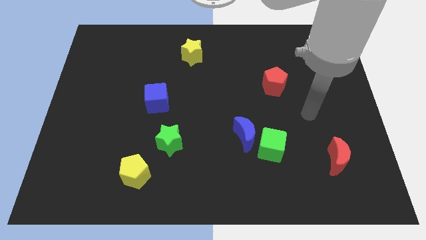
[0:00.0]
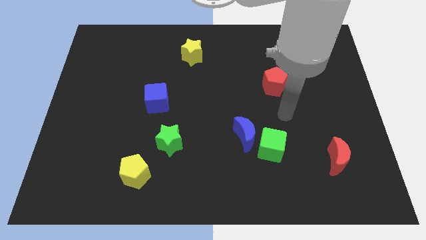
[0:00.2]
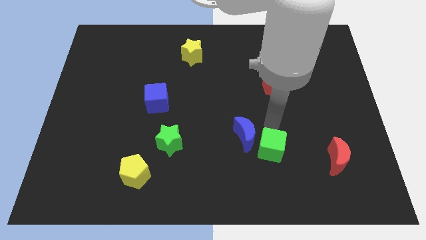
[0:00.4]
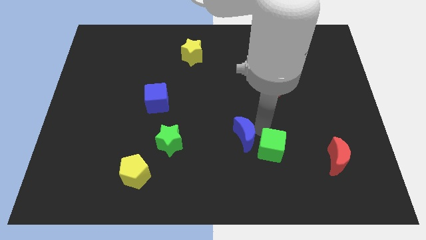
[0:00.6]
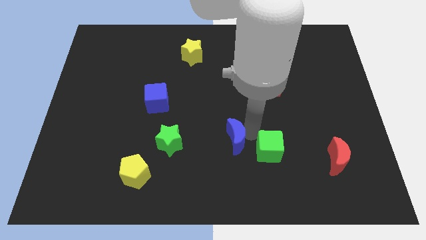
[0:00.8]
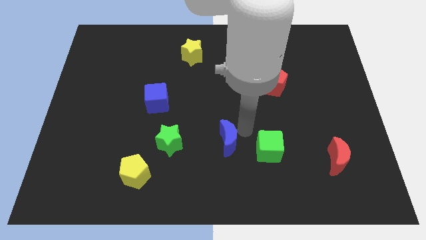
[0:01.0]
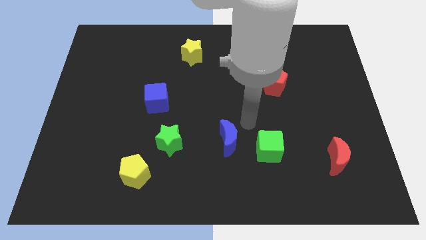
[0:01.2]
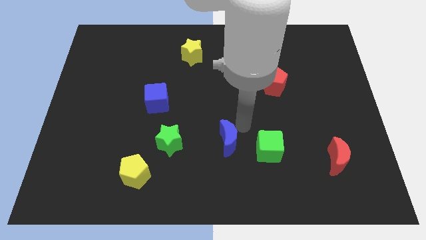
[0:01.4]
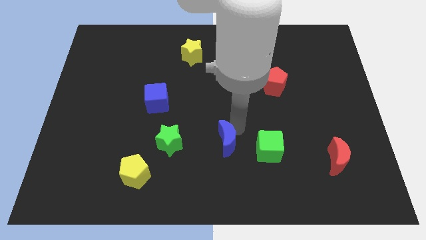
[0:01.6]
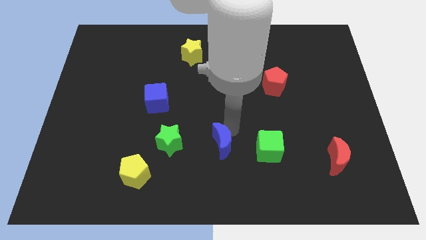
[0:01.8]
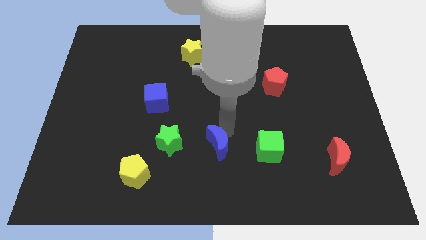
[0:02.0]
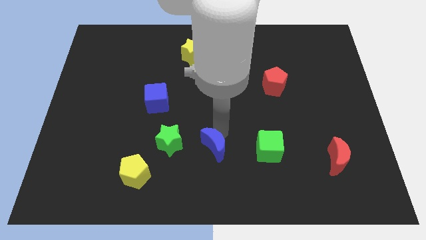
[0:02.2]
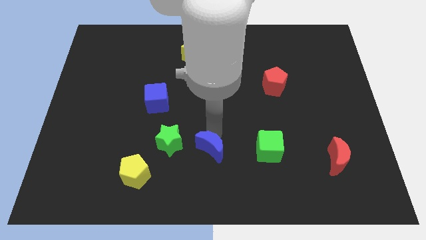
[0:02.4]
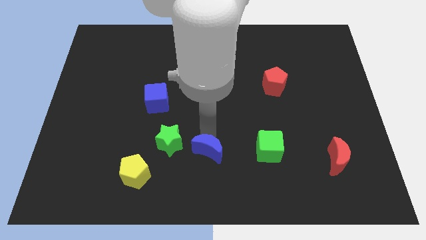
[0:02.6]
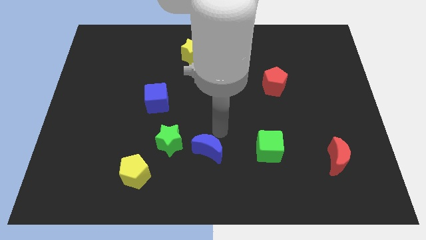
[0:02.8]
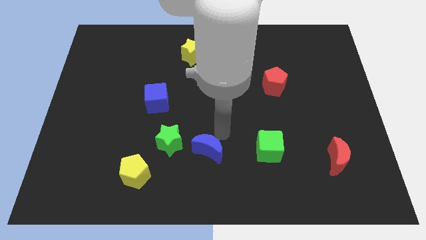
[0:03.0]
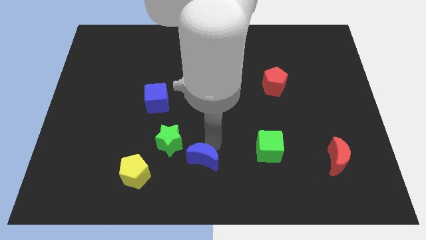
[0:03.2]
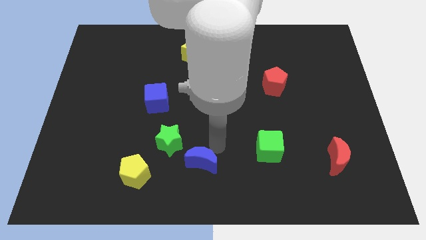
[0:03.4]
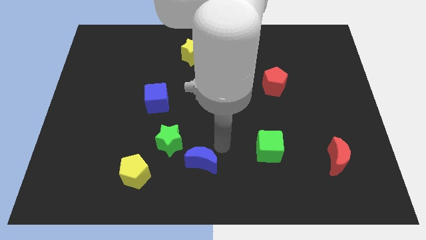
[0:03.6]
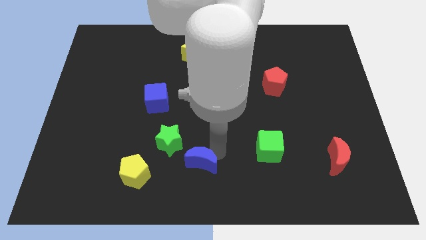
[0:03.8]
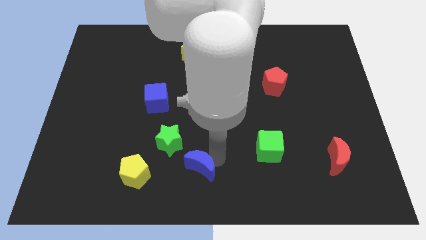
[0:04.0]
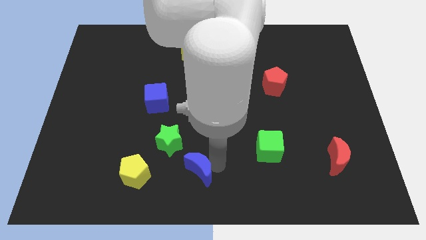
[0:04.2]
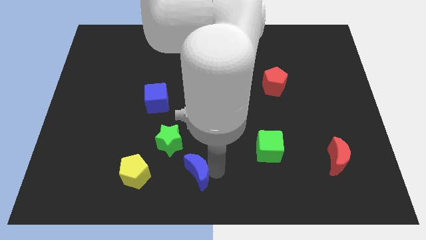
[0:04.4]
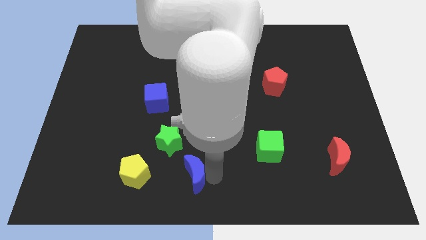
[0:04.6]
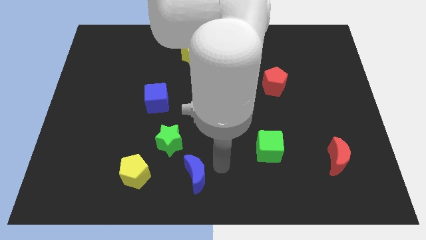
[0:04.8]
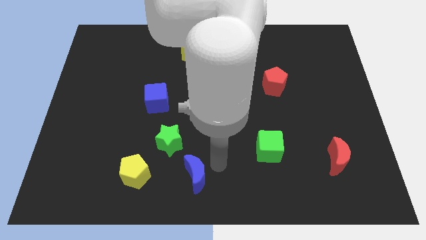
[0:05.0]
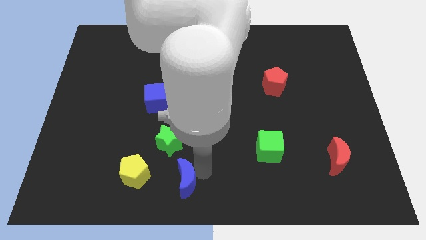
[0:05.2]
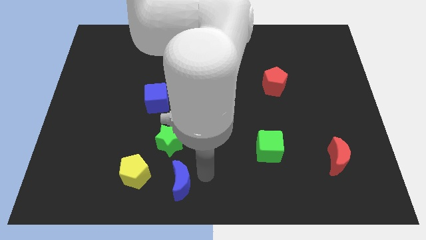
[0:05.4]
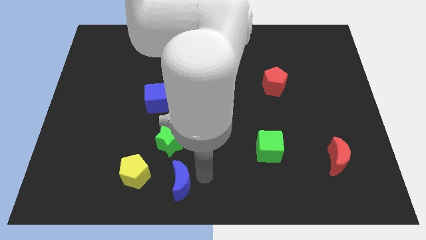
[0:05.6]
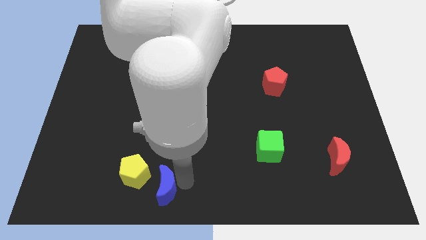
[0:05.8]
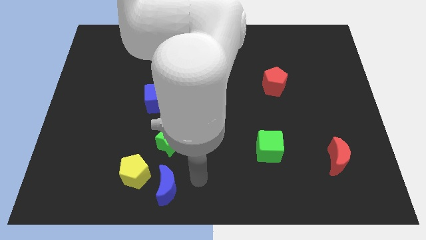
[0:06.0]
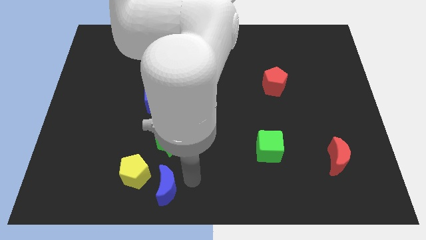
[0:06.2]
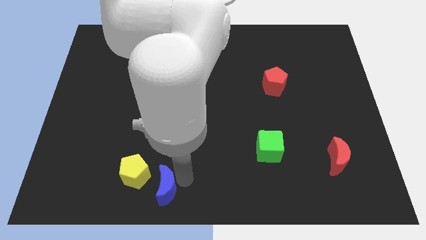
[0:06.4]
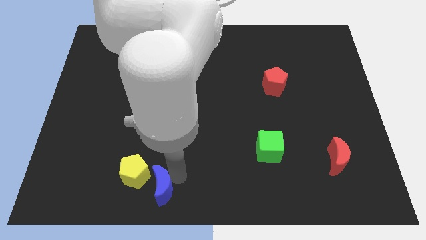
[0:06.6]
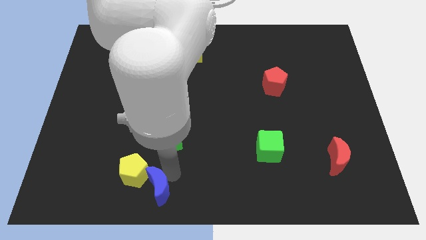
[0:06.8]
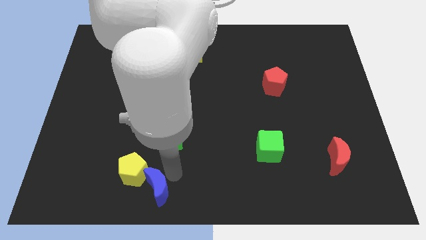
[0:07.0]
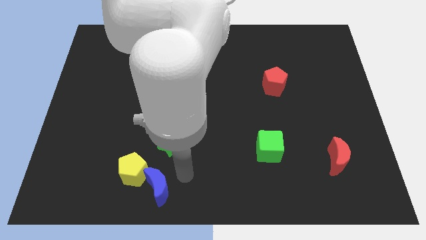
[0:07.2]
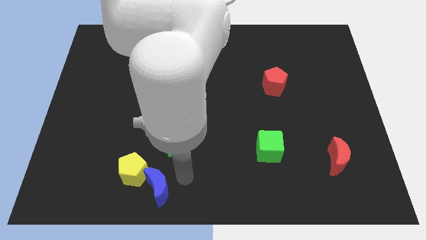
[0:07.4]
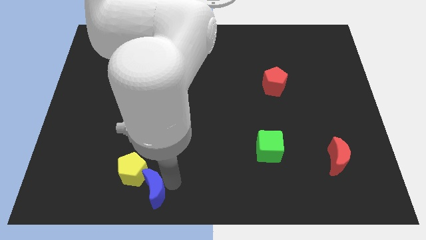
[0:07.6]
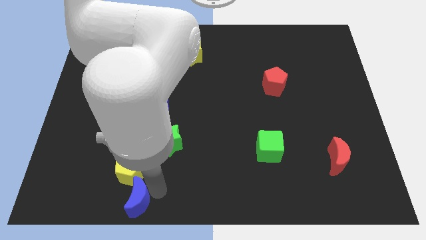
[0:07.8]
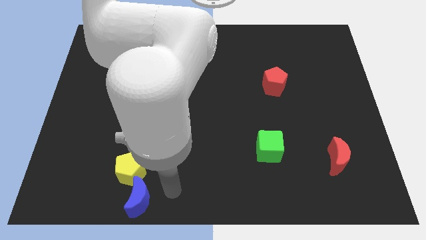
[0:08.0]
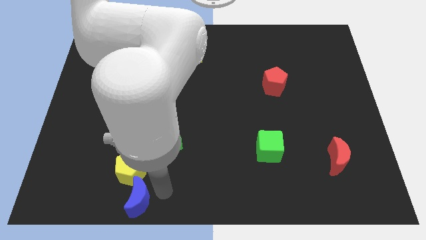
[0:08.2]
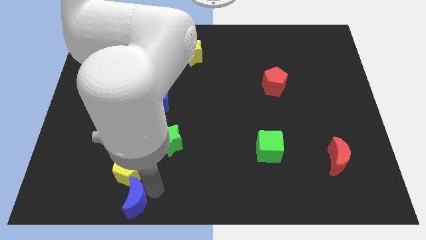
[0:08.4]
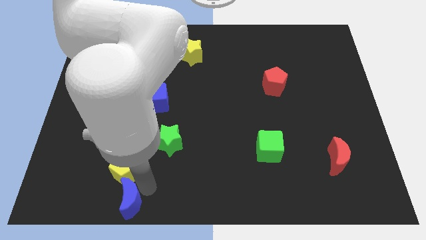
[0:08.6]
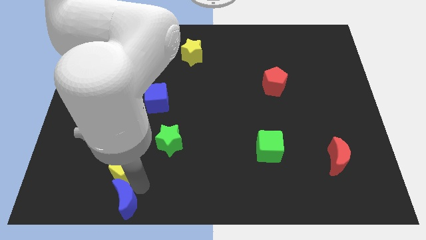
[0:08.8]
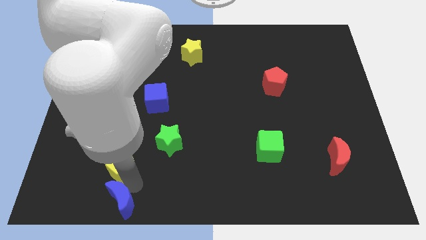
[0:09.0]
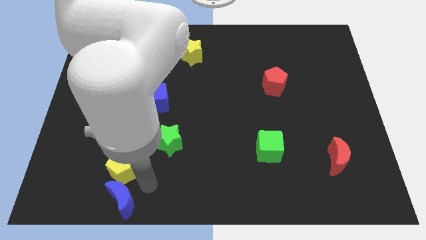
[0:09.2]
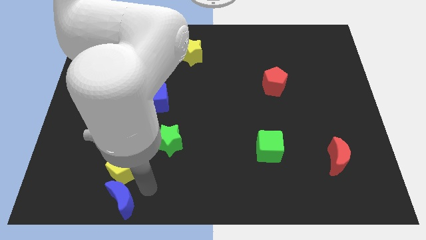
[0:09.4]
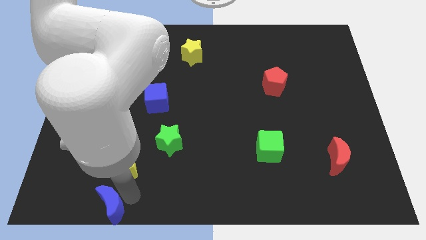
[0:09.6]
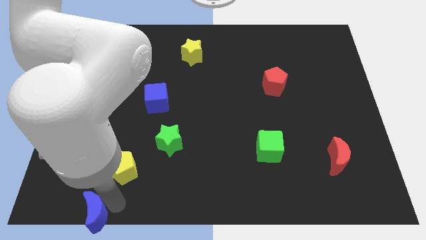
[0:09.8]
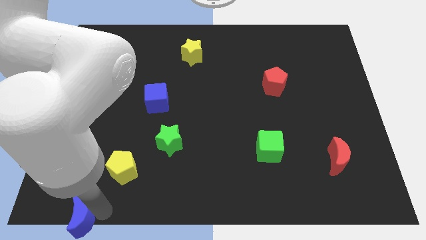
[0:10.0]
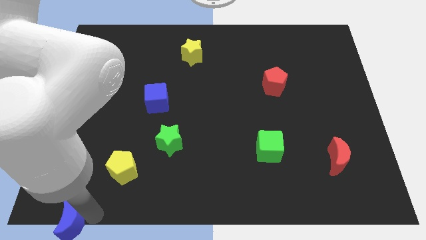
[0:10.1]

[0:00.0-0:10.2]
move the blue moon to the lower left corner

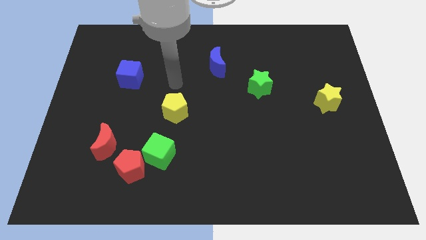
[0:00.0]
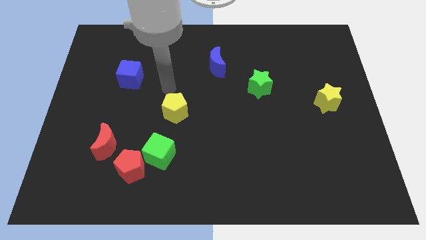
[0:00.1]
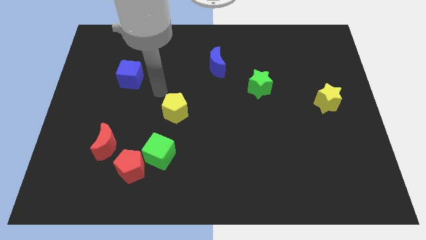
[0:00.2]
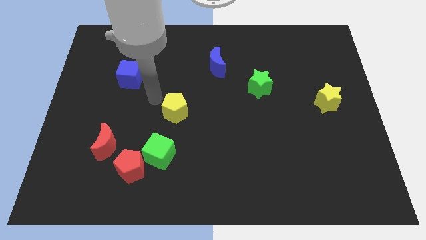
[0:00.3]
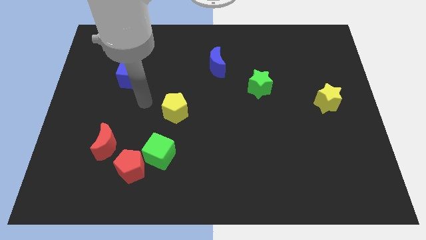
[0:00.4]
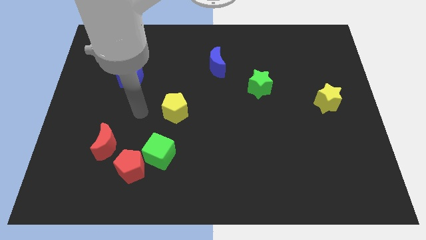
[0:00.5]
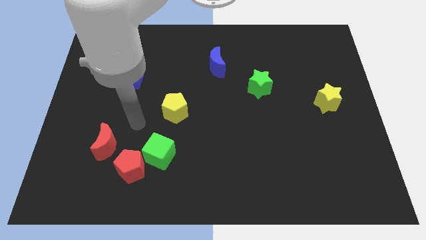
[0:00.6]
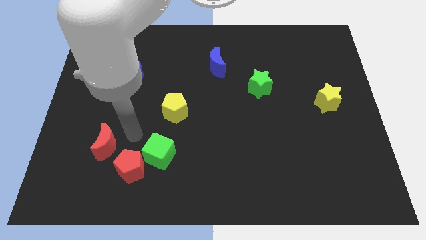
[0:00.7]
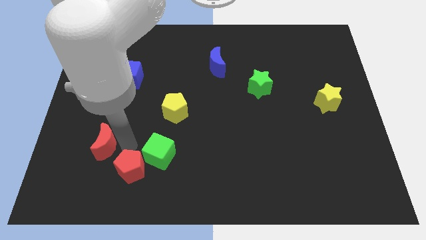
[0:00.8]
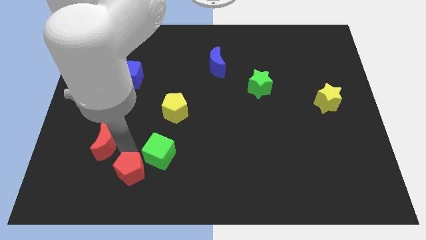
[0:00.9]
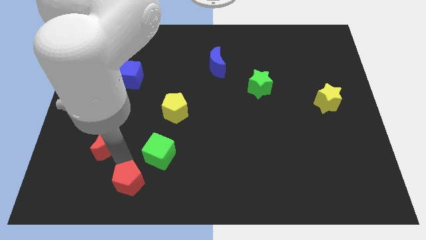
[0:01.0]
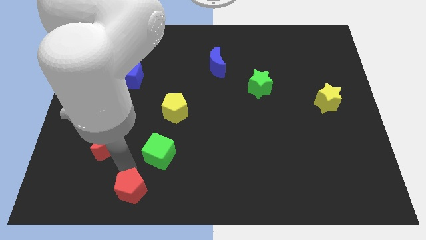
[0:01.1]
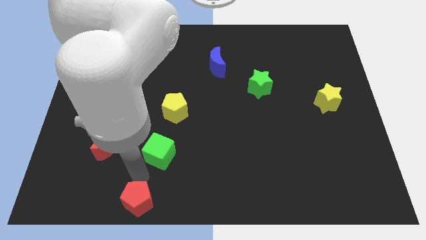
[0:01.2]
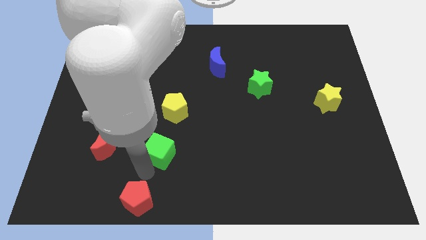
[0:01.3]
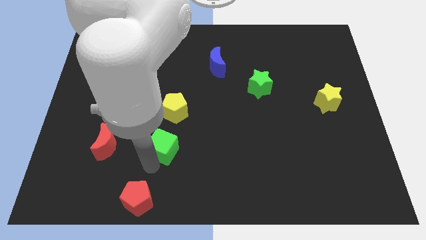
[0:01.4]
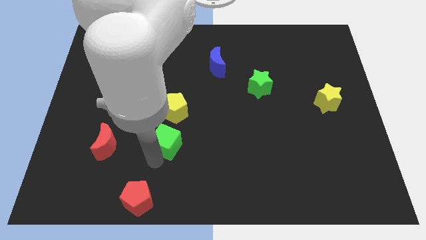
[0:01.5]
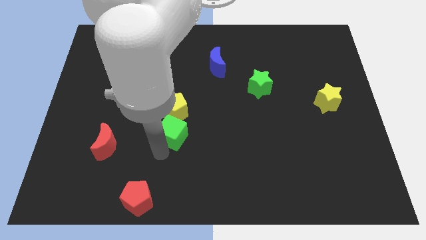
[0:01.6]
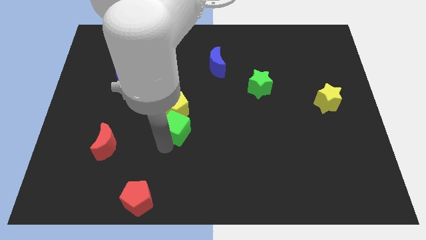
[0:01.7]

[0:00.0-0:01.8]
slide the green cube to the center
